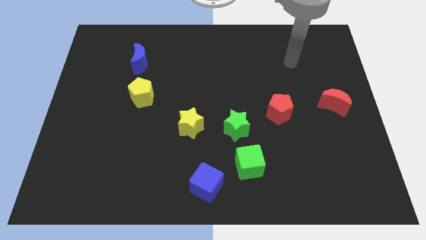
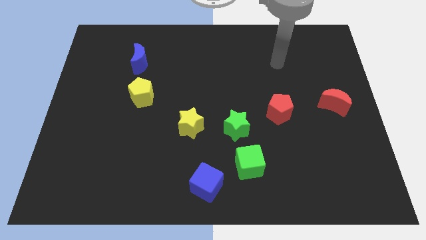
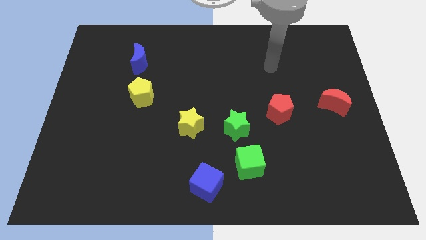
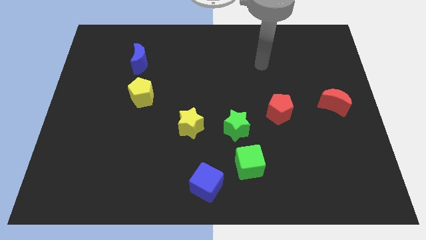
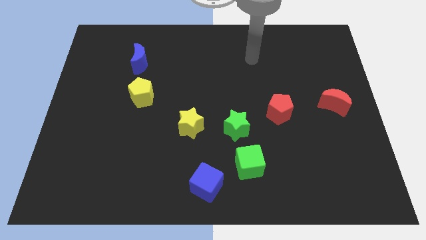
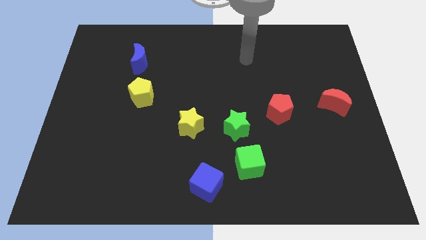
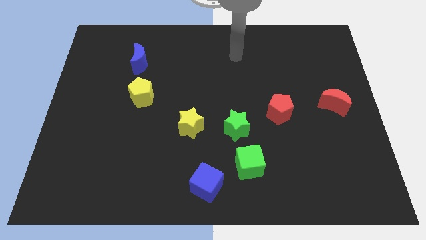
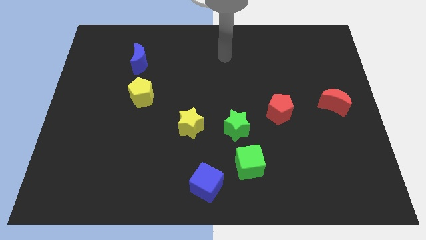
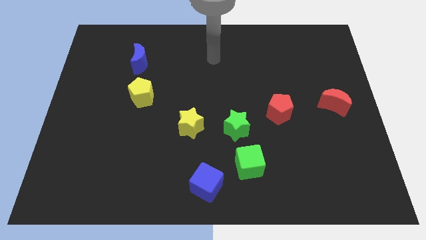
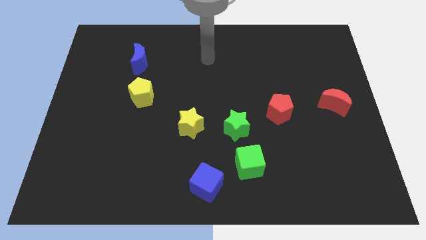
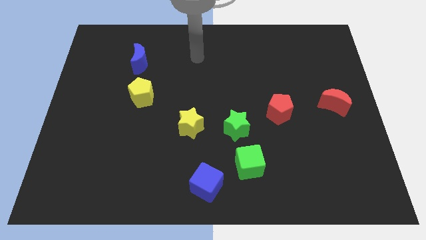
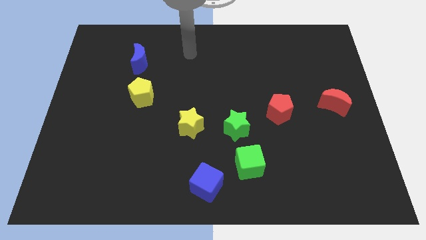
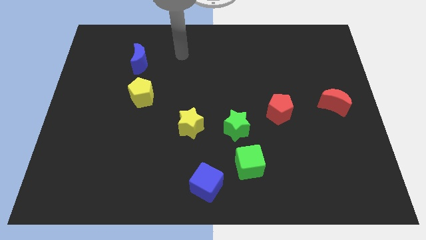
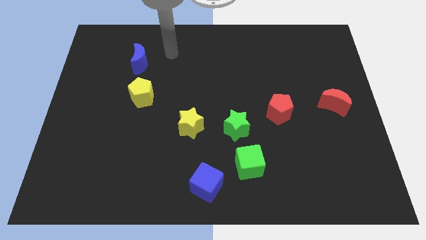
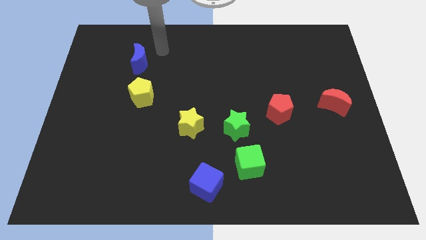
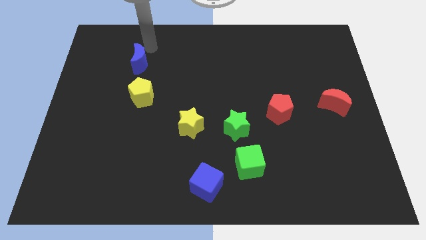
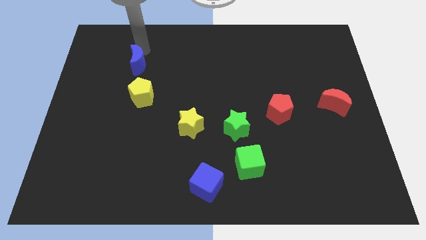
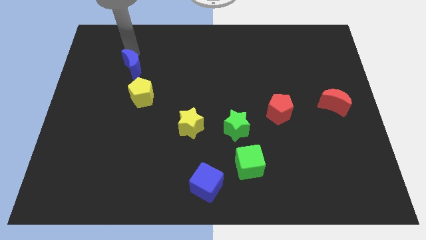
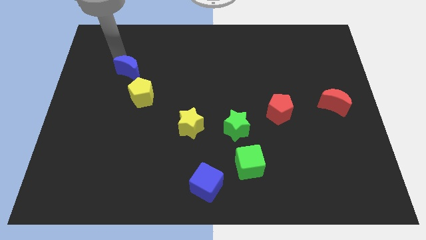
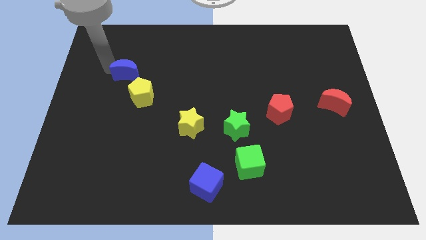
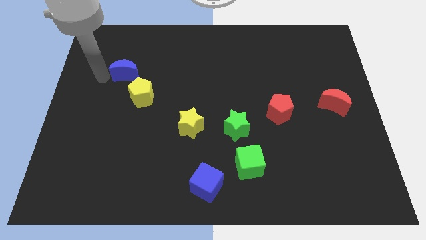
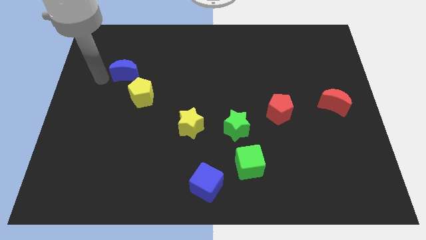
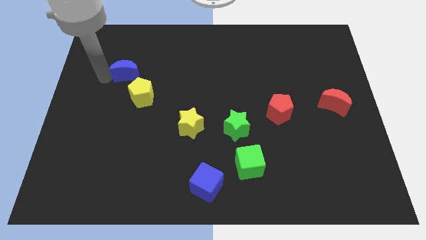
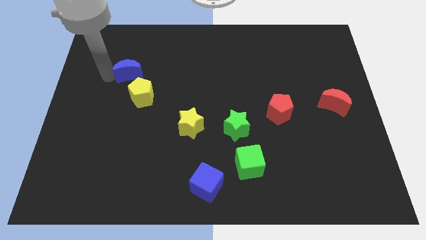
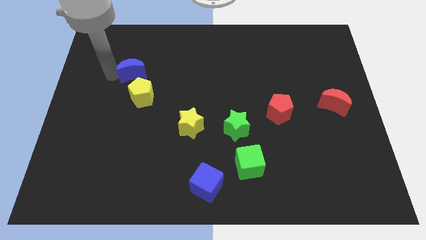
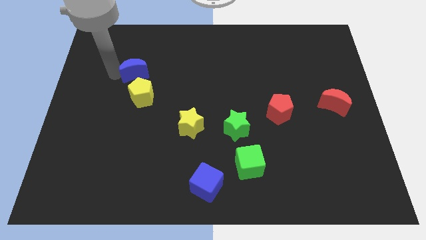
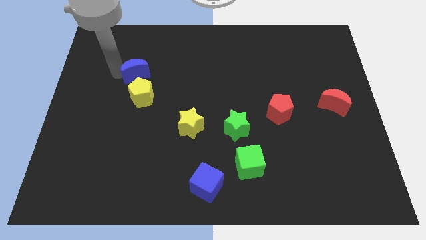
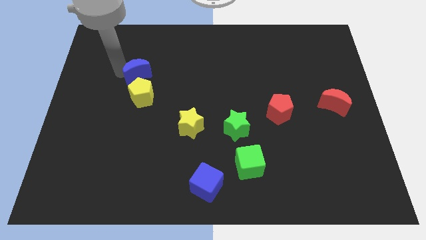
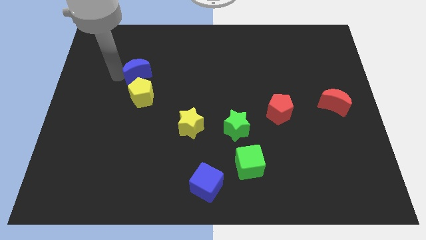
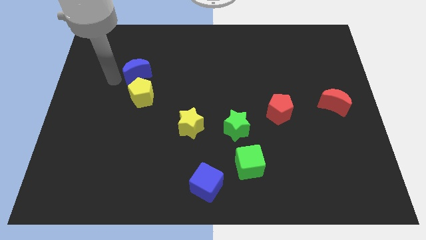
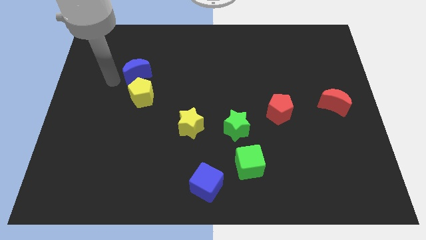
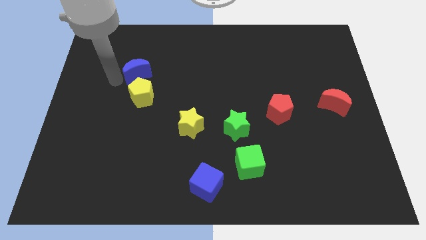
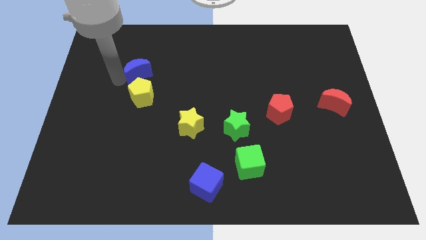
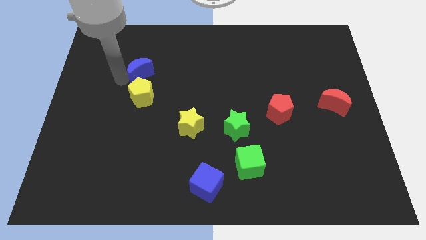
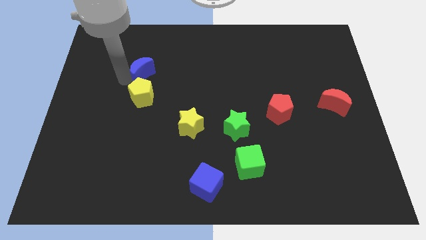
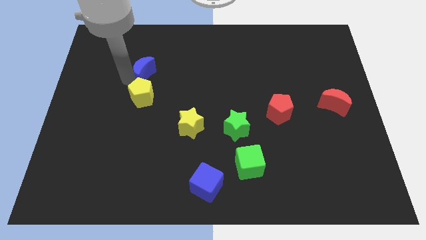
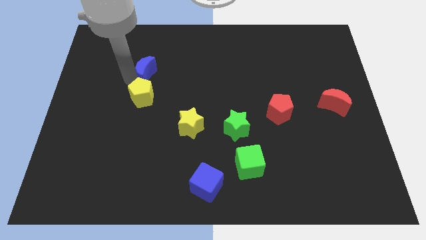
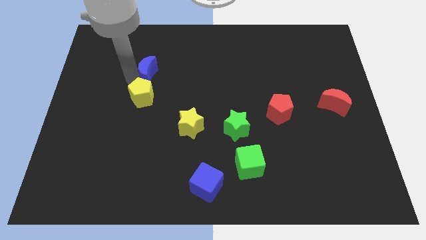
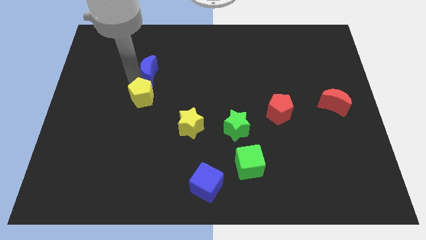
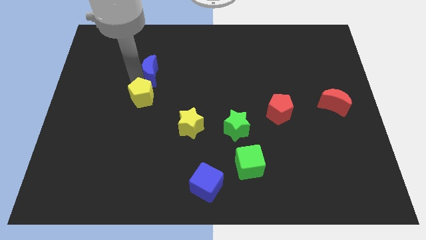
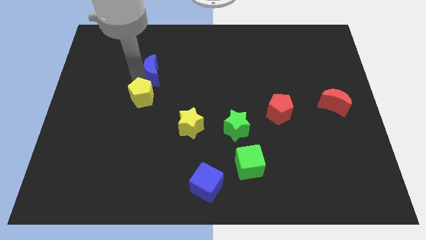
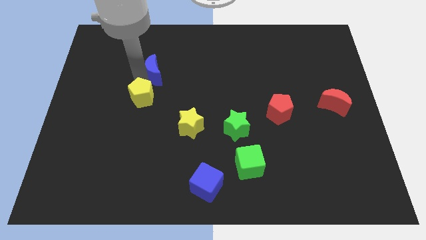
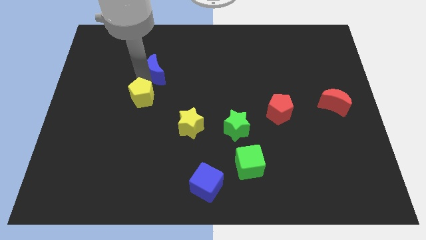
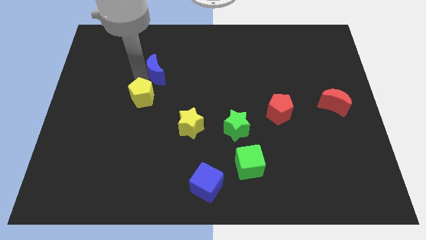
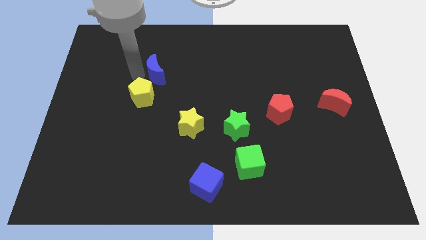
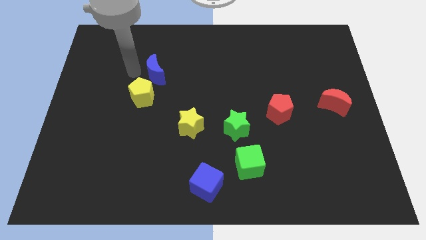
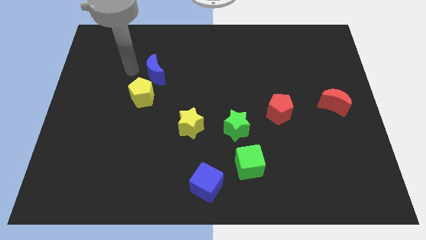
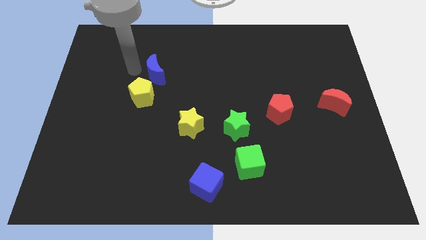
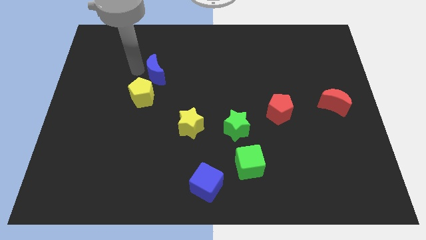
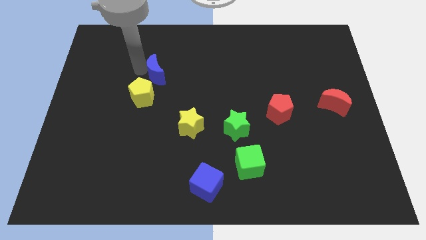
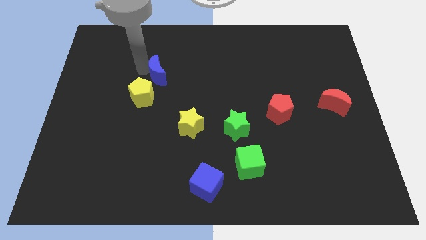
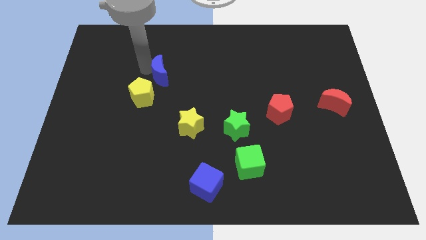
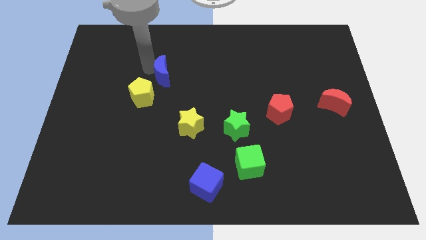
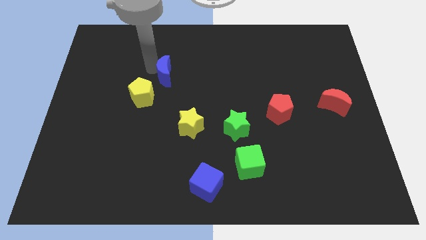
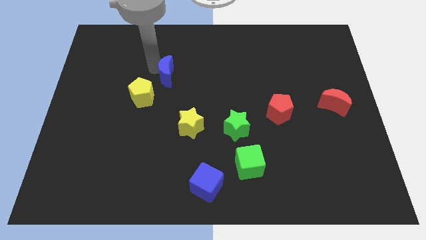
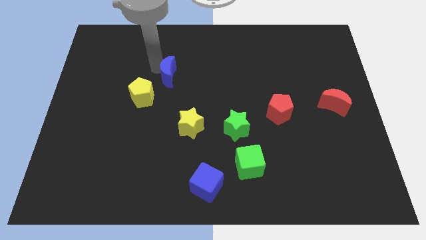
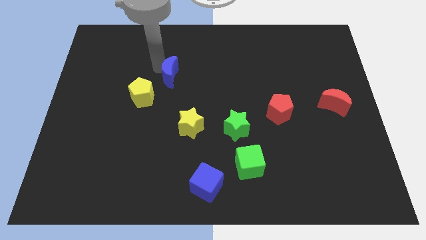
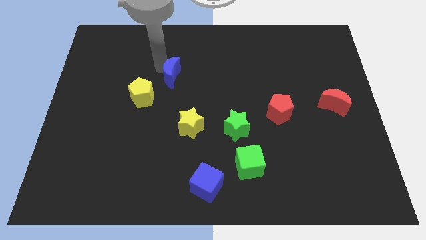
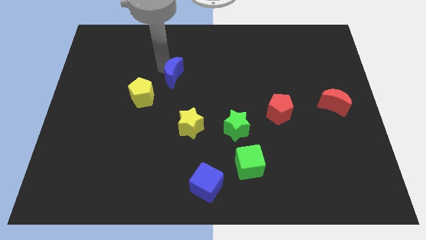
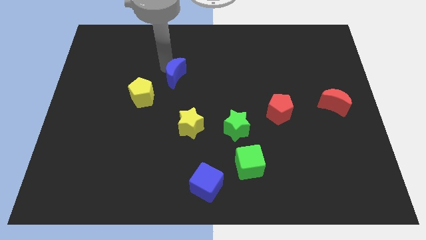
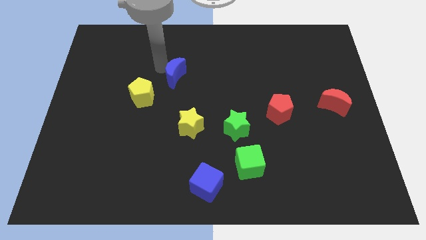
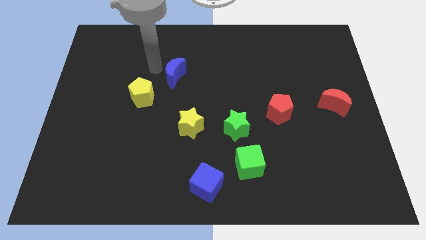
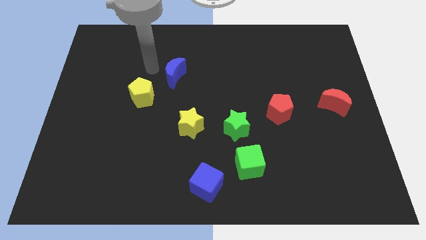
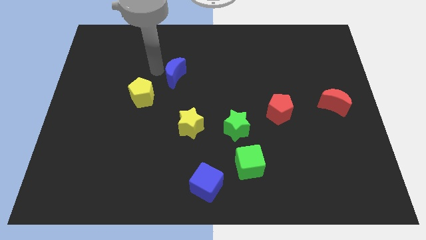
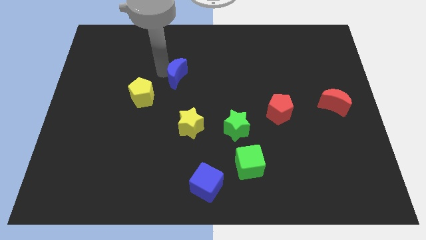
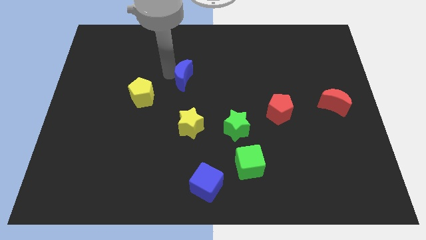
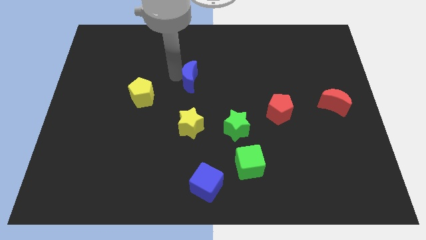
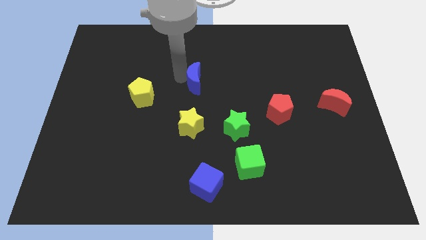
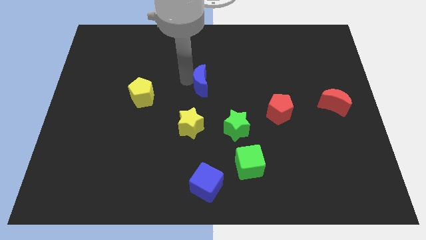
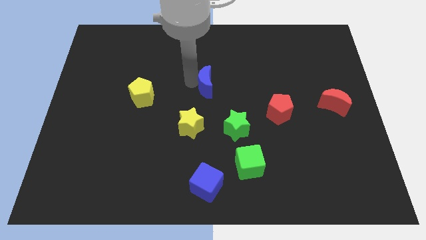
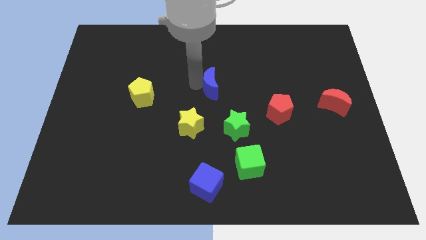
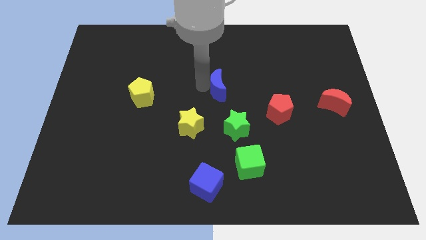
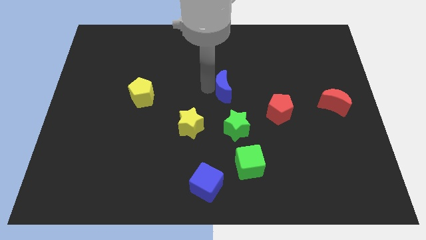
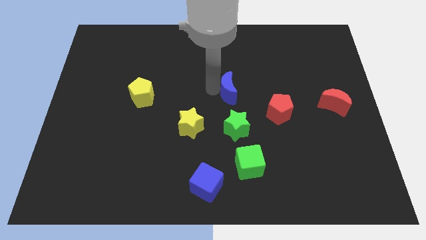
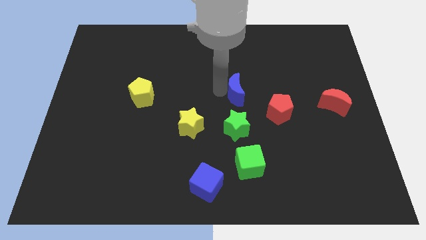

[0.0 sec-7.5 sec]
slide the blue moon to the top left side of the red pentagon
